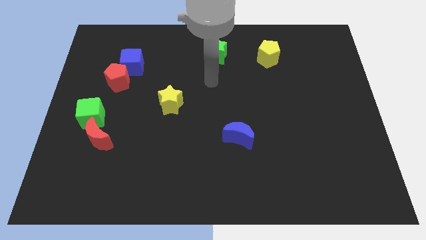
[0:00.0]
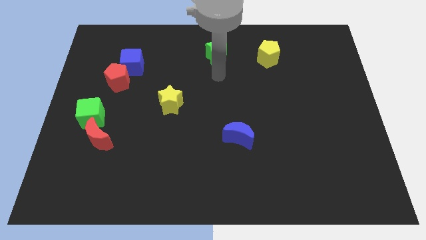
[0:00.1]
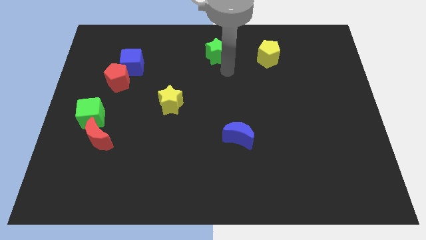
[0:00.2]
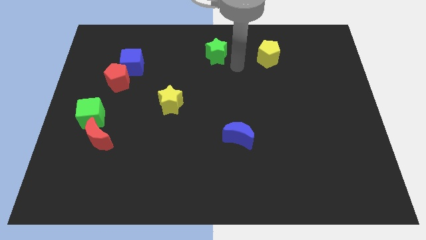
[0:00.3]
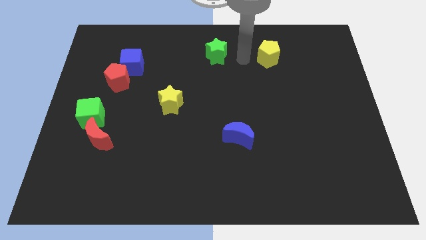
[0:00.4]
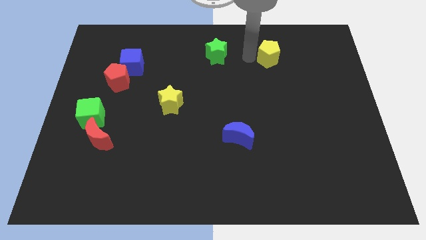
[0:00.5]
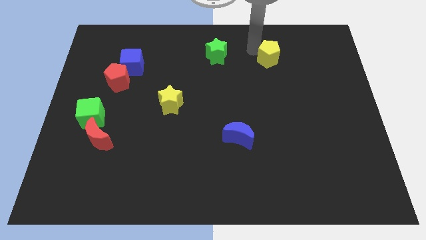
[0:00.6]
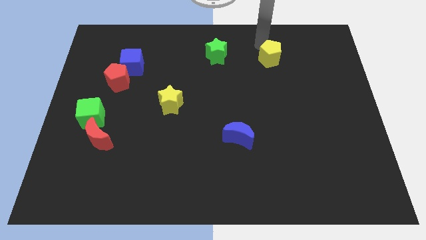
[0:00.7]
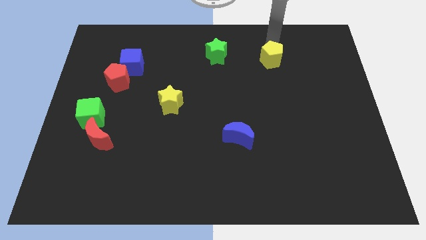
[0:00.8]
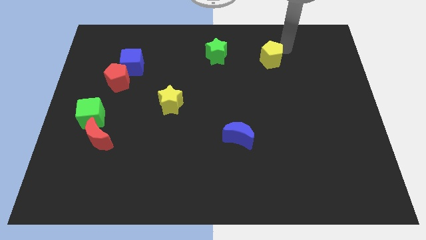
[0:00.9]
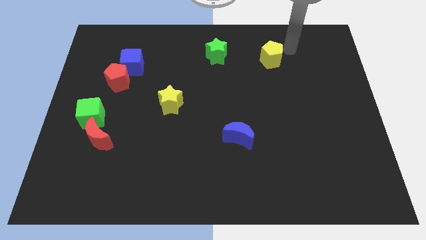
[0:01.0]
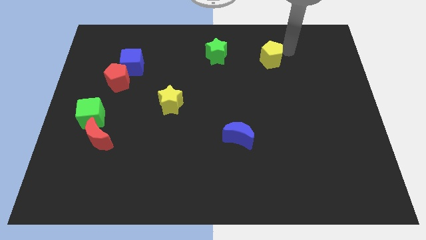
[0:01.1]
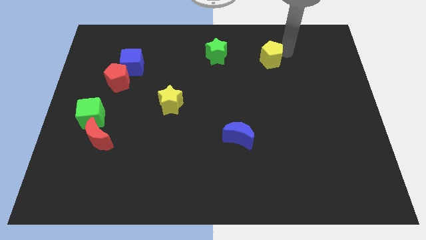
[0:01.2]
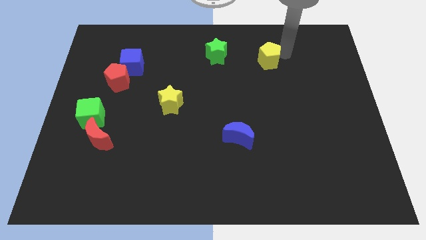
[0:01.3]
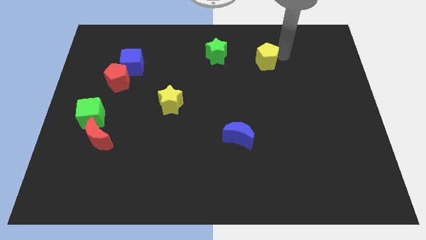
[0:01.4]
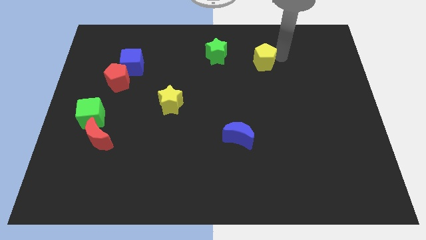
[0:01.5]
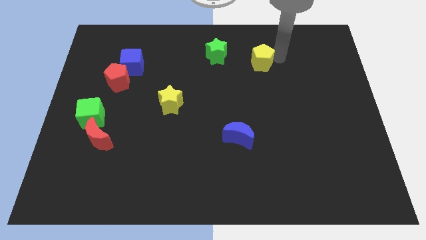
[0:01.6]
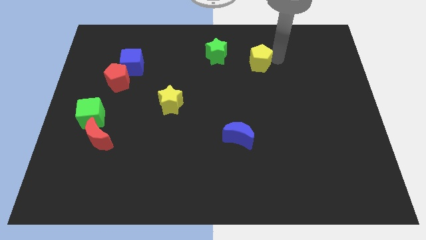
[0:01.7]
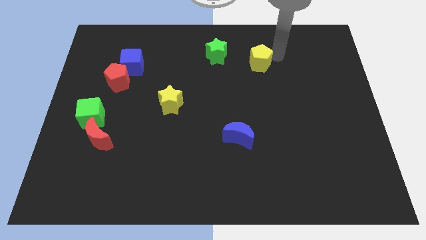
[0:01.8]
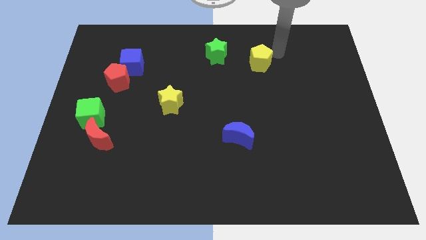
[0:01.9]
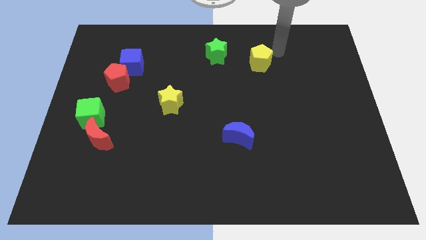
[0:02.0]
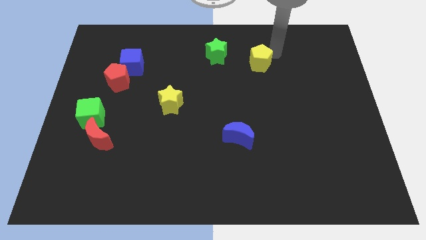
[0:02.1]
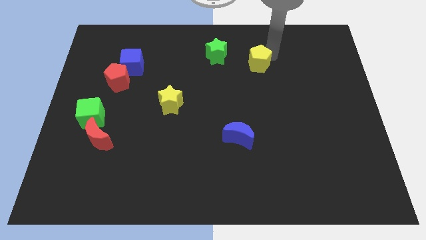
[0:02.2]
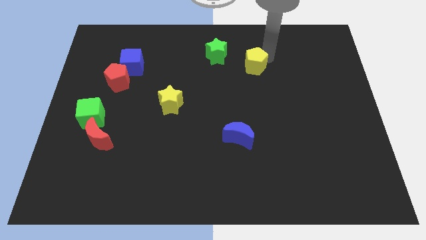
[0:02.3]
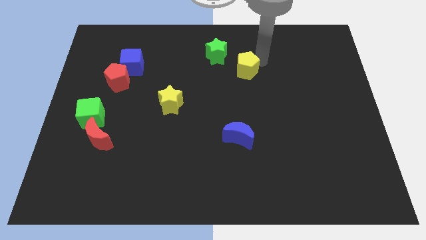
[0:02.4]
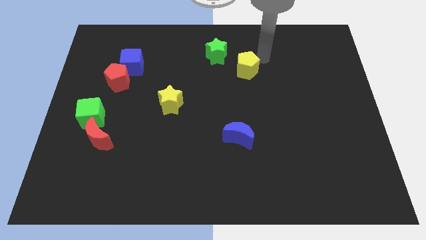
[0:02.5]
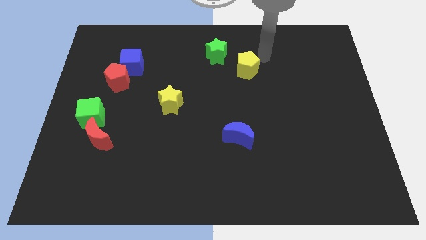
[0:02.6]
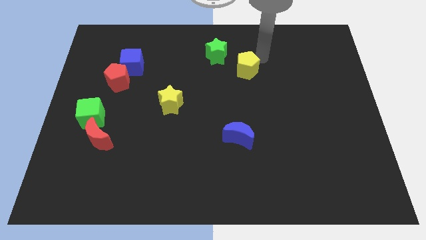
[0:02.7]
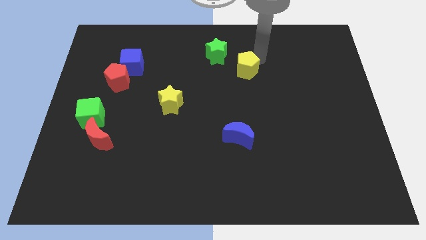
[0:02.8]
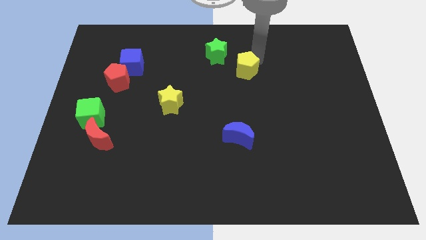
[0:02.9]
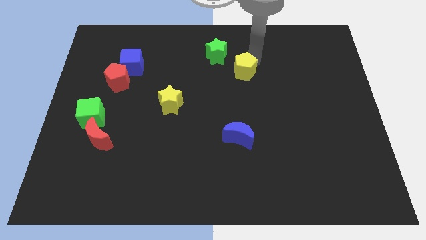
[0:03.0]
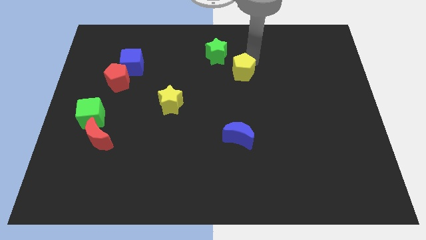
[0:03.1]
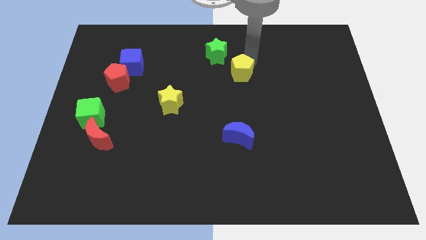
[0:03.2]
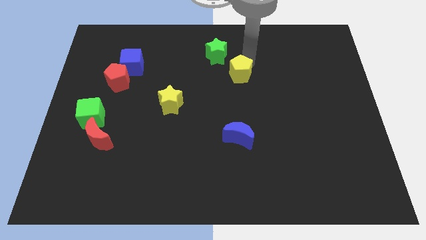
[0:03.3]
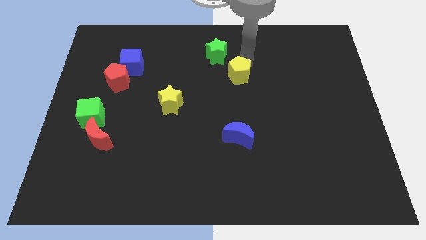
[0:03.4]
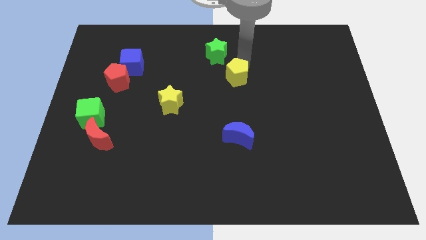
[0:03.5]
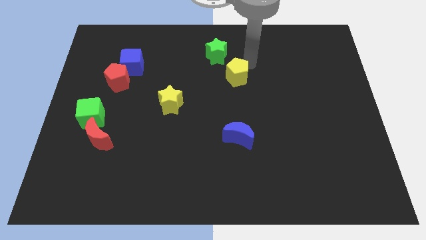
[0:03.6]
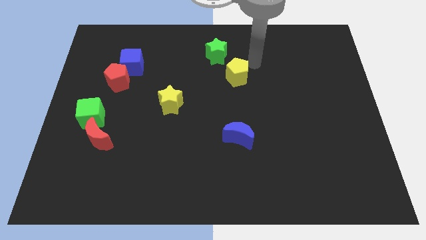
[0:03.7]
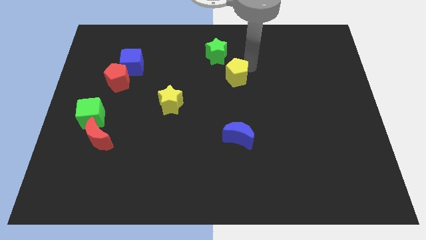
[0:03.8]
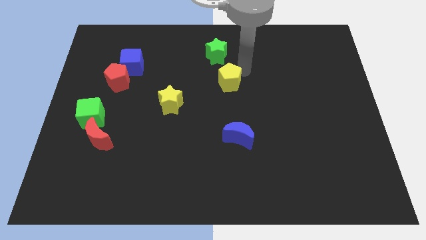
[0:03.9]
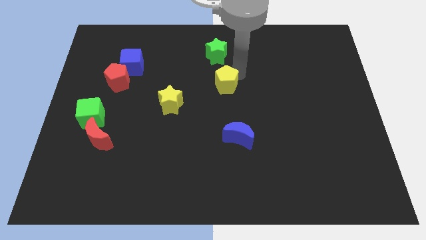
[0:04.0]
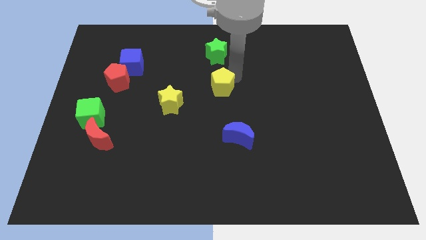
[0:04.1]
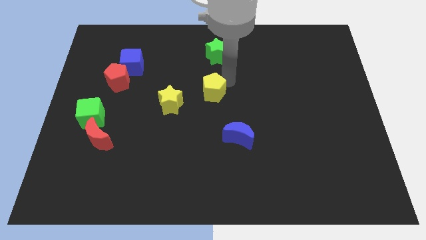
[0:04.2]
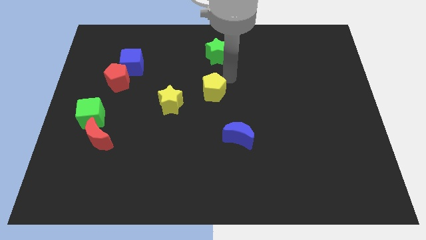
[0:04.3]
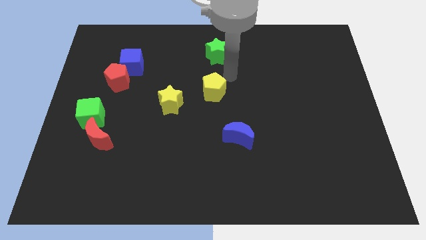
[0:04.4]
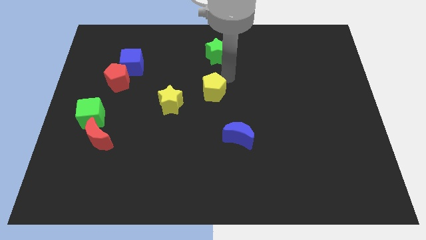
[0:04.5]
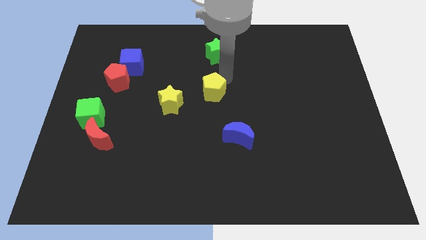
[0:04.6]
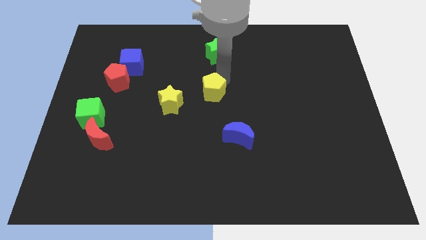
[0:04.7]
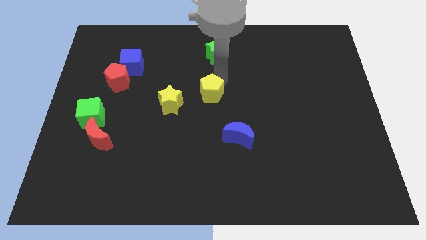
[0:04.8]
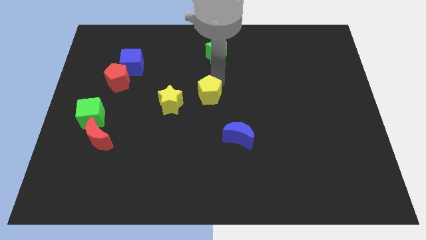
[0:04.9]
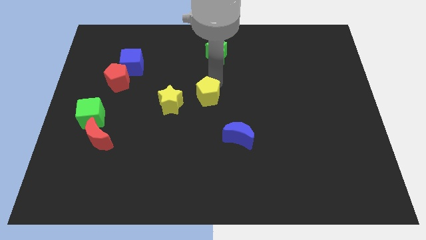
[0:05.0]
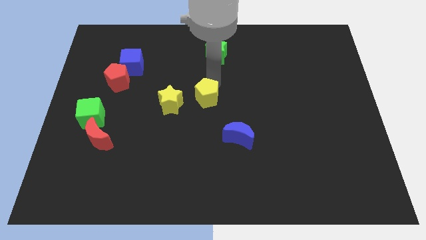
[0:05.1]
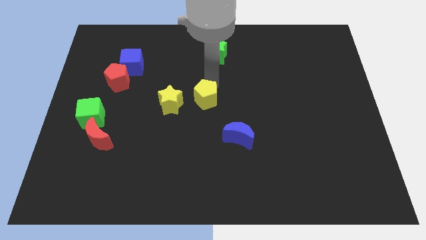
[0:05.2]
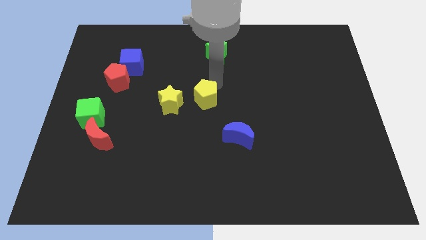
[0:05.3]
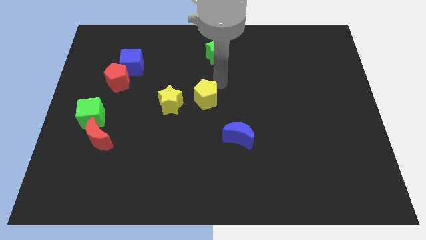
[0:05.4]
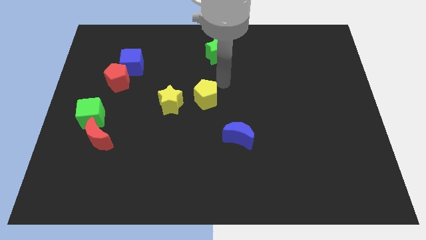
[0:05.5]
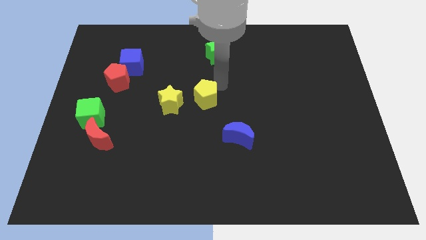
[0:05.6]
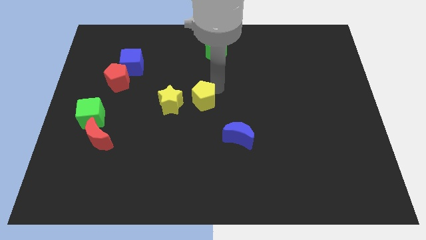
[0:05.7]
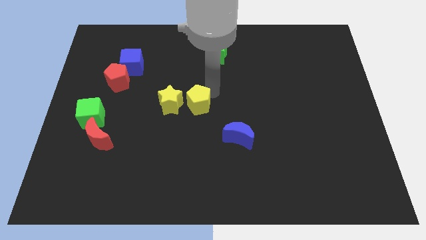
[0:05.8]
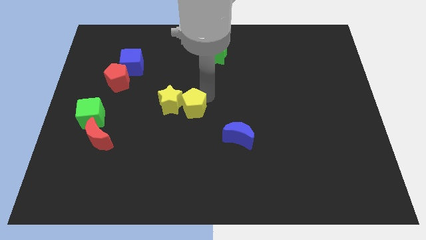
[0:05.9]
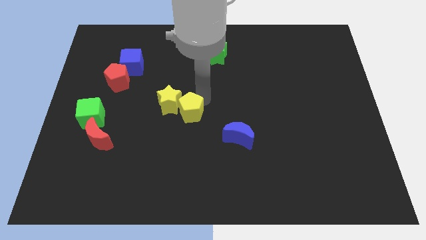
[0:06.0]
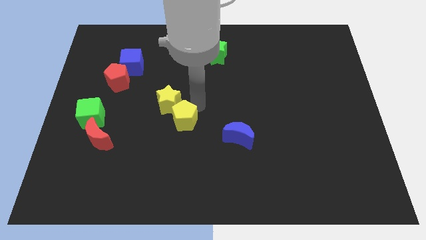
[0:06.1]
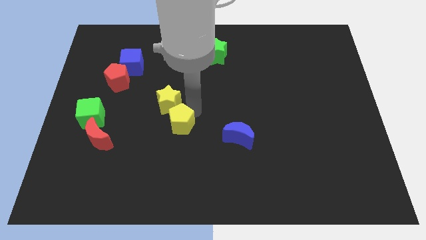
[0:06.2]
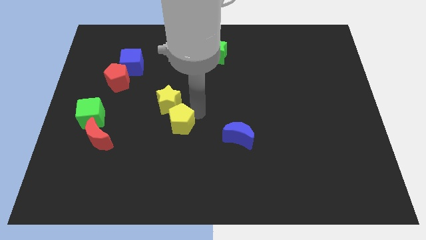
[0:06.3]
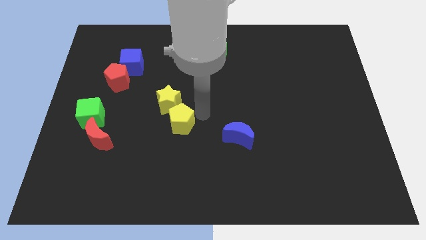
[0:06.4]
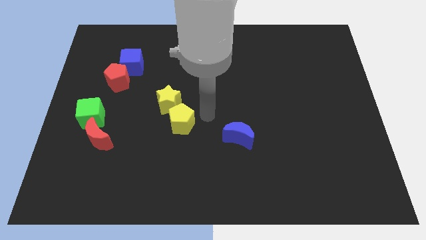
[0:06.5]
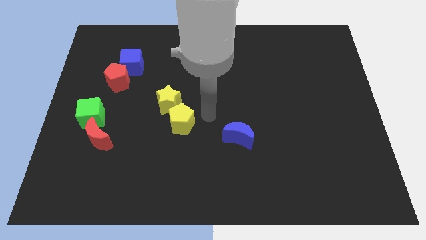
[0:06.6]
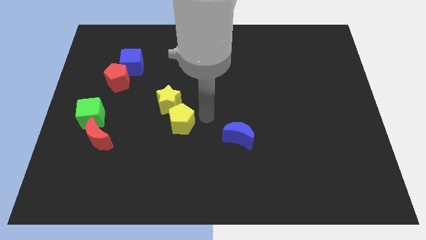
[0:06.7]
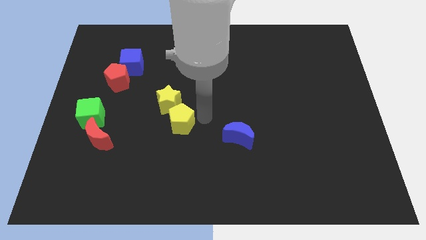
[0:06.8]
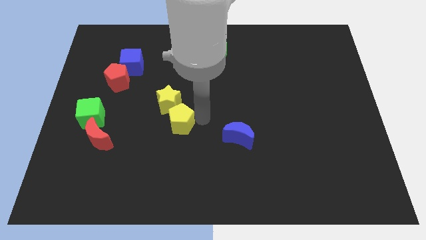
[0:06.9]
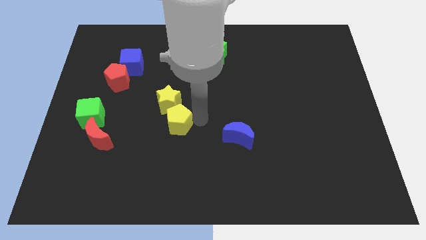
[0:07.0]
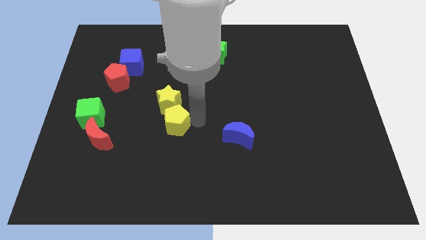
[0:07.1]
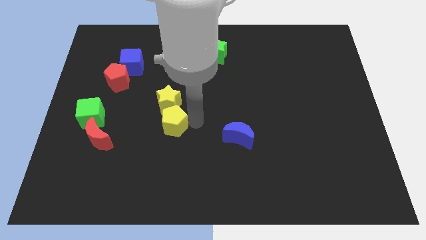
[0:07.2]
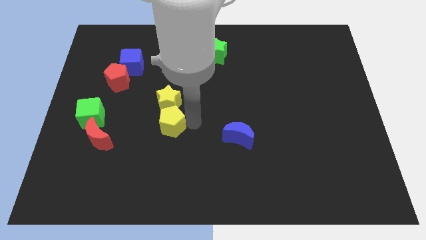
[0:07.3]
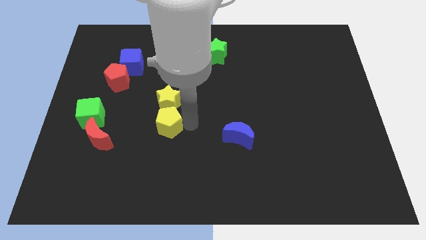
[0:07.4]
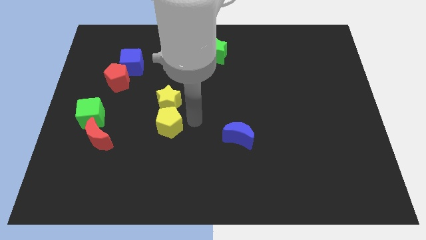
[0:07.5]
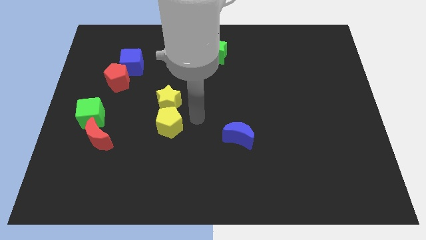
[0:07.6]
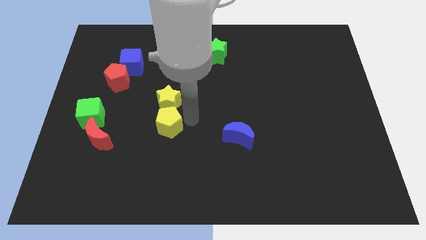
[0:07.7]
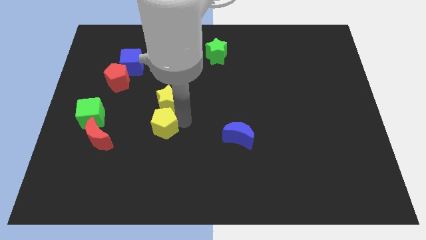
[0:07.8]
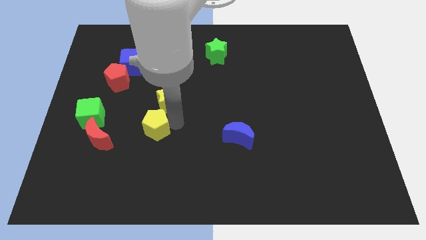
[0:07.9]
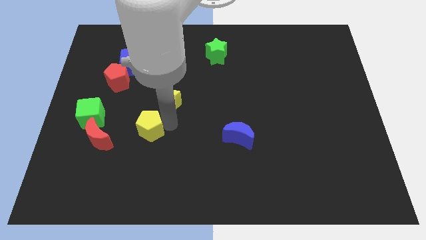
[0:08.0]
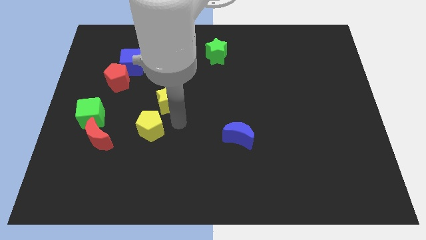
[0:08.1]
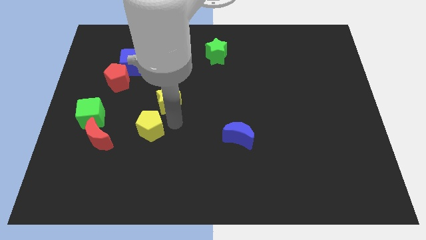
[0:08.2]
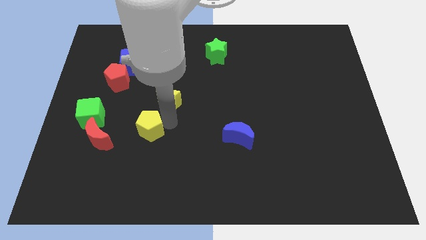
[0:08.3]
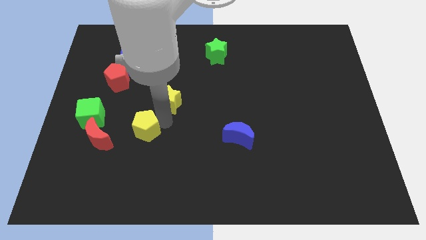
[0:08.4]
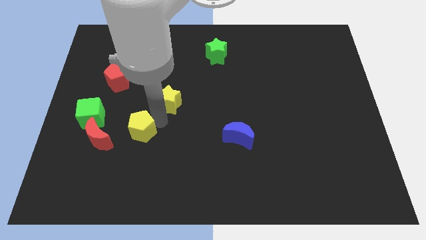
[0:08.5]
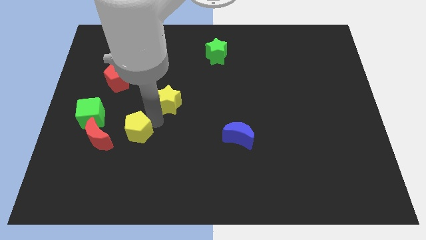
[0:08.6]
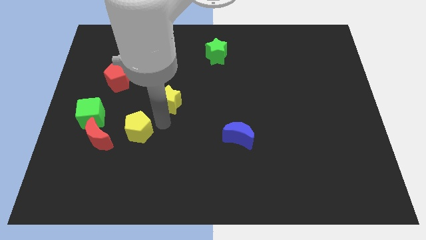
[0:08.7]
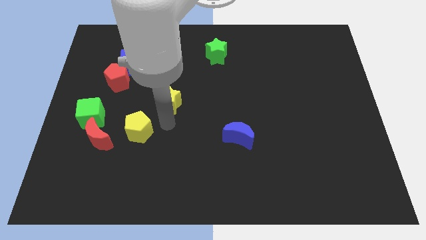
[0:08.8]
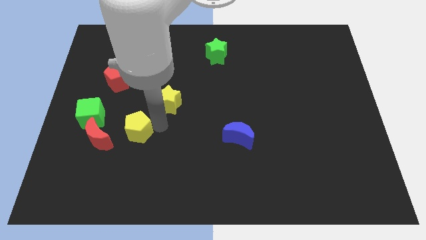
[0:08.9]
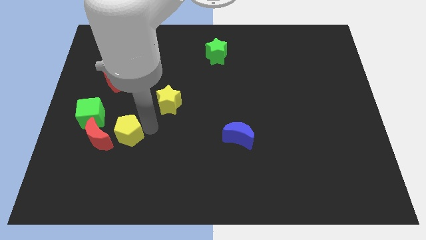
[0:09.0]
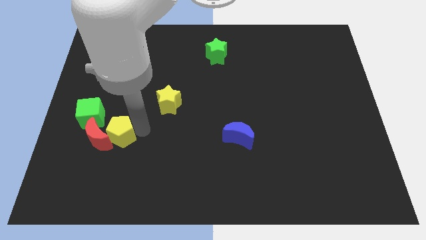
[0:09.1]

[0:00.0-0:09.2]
put the yellow pentagon towards the red moon
